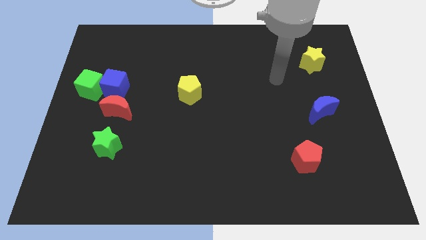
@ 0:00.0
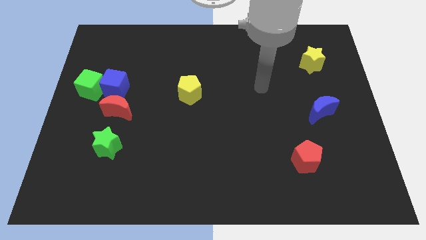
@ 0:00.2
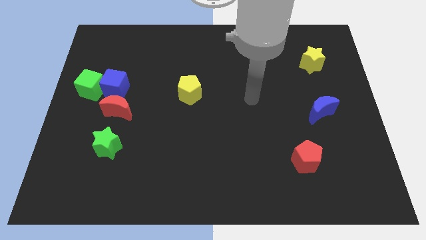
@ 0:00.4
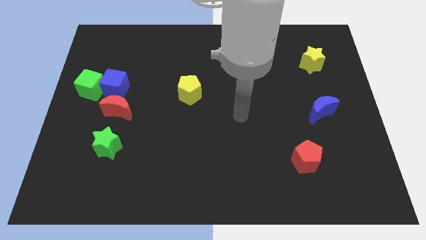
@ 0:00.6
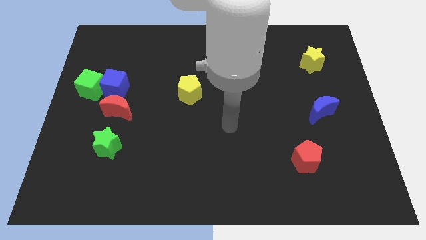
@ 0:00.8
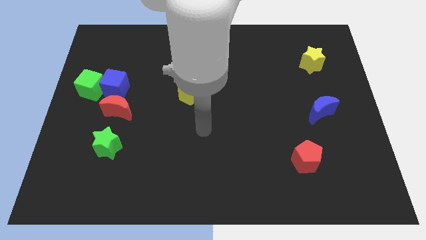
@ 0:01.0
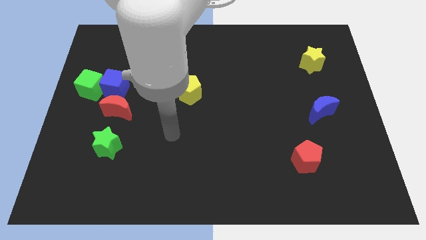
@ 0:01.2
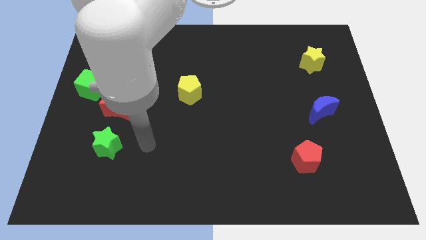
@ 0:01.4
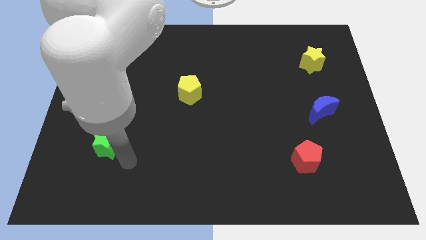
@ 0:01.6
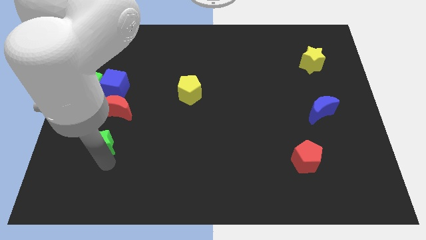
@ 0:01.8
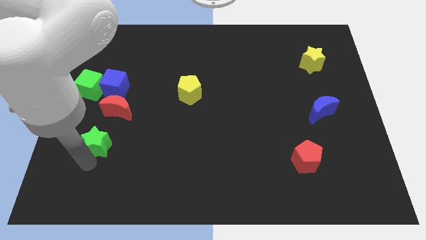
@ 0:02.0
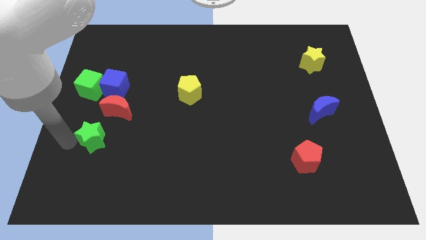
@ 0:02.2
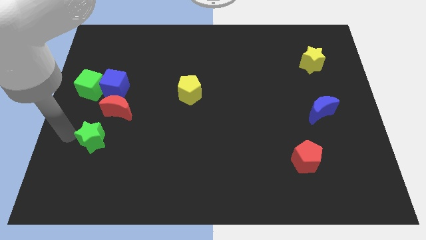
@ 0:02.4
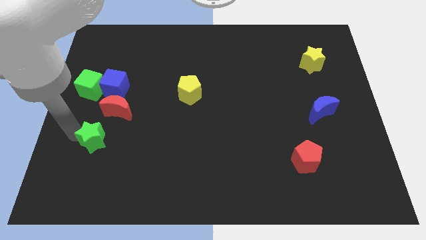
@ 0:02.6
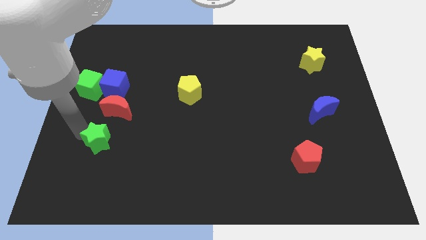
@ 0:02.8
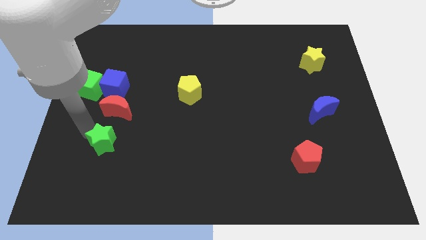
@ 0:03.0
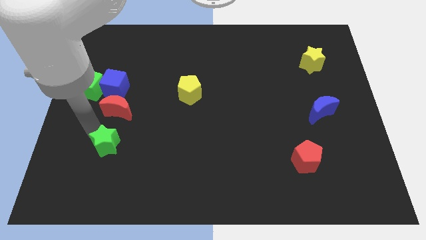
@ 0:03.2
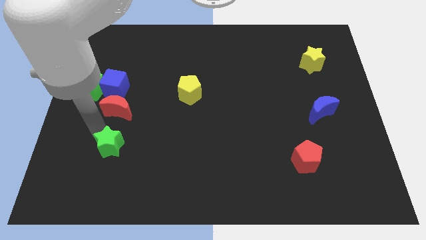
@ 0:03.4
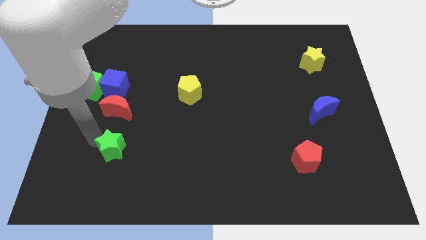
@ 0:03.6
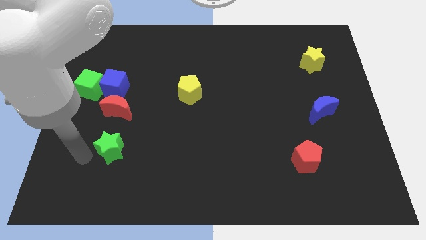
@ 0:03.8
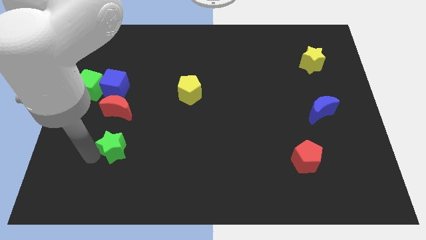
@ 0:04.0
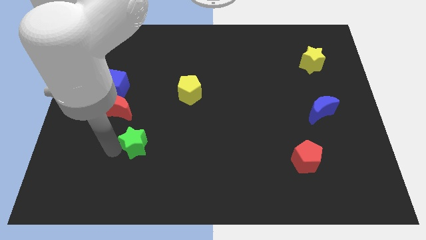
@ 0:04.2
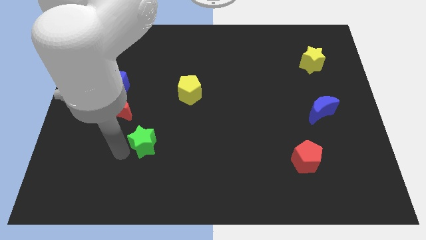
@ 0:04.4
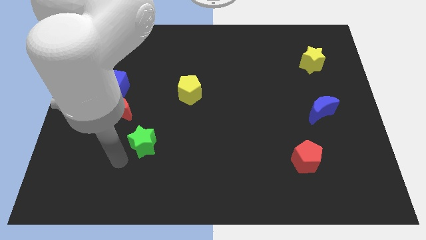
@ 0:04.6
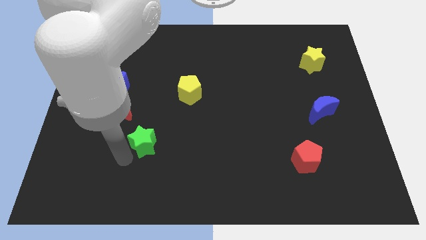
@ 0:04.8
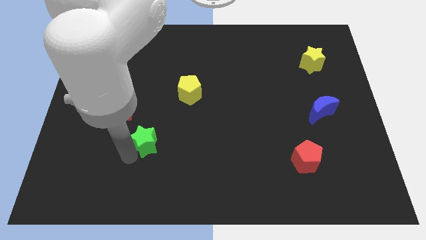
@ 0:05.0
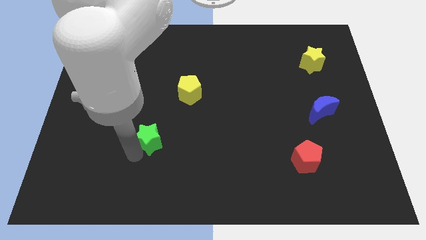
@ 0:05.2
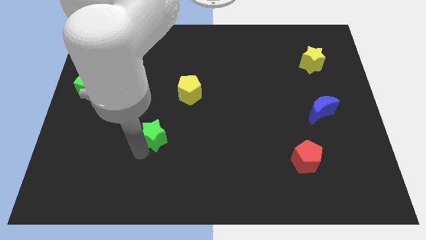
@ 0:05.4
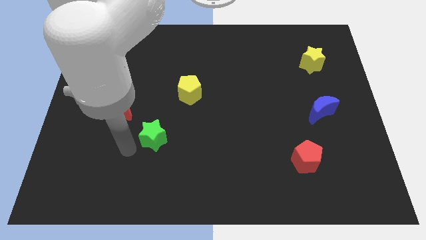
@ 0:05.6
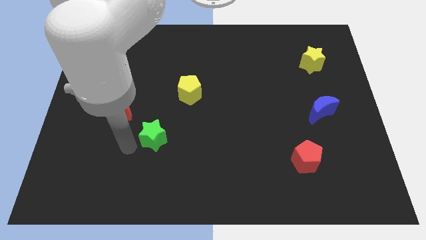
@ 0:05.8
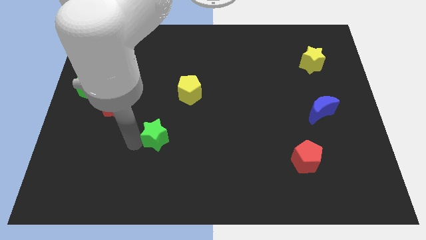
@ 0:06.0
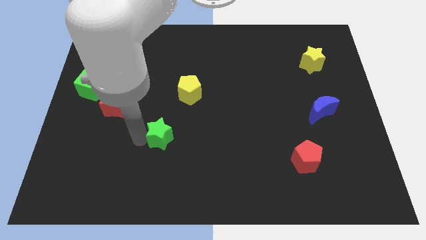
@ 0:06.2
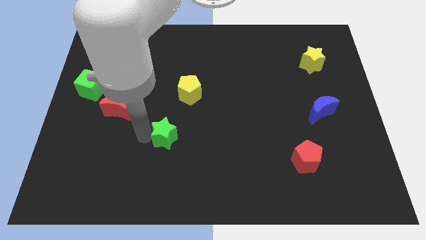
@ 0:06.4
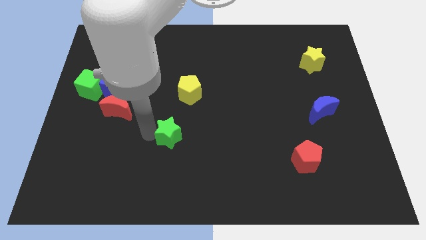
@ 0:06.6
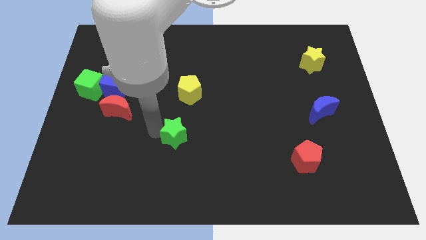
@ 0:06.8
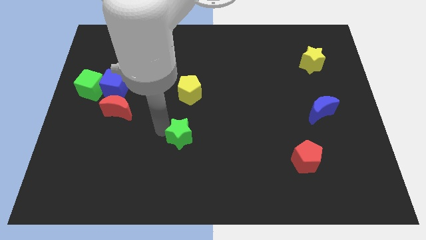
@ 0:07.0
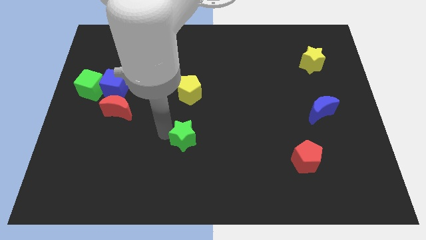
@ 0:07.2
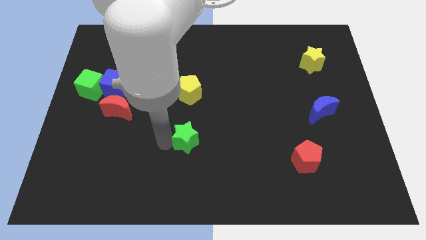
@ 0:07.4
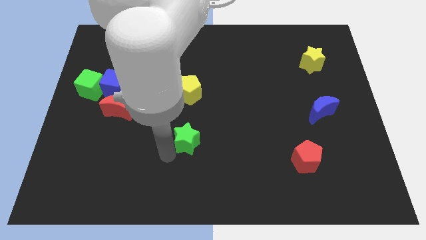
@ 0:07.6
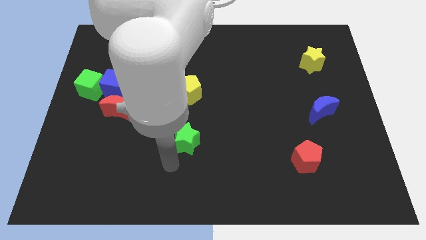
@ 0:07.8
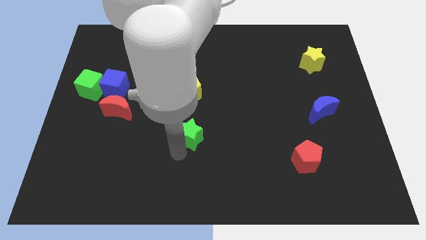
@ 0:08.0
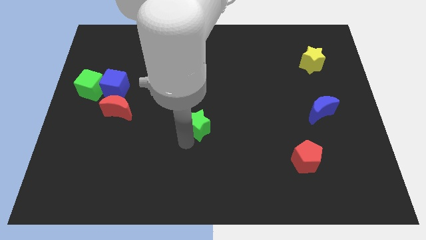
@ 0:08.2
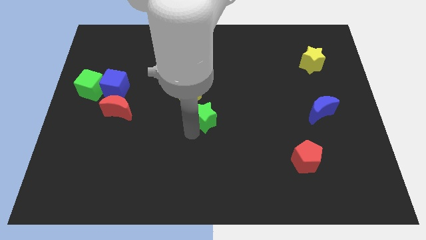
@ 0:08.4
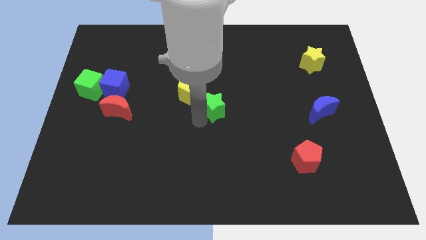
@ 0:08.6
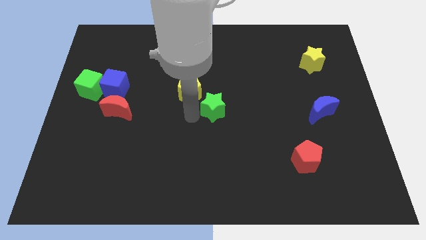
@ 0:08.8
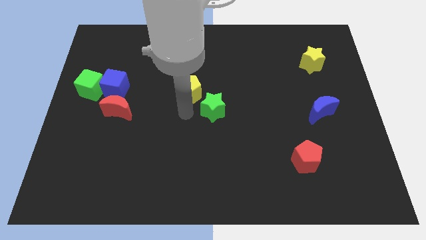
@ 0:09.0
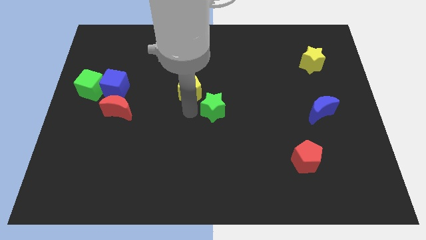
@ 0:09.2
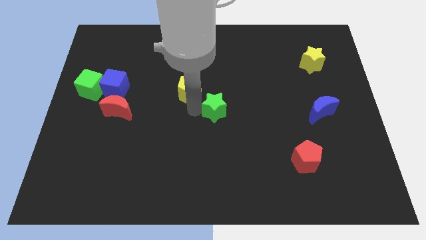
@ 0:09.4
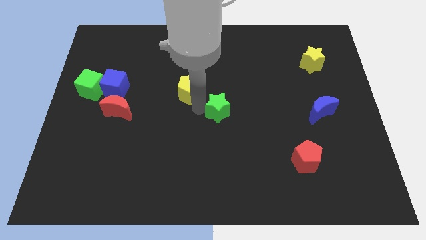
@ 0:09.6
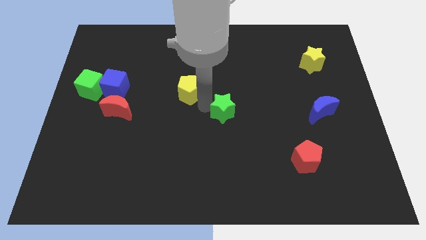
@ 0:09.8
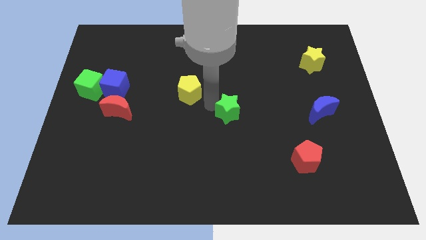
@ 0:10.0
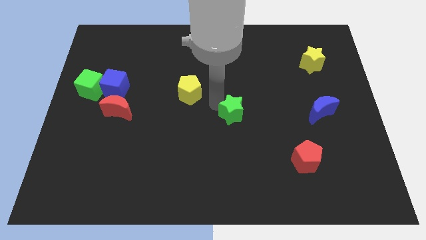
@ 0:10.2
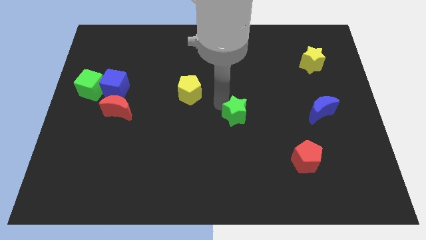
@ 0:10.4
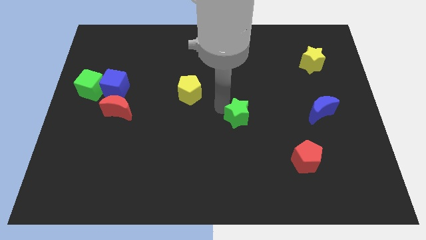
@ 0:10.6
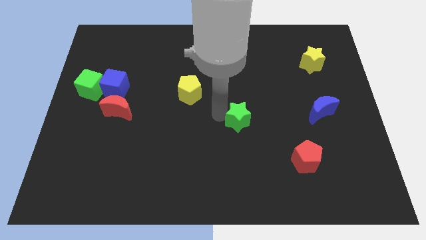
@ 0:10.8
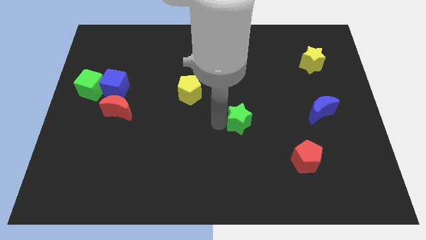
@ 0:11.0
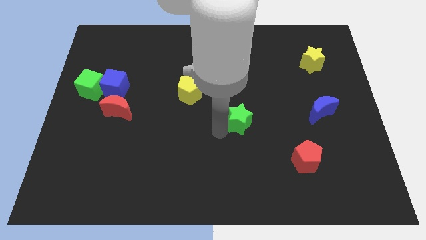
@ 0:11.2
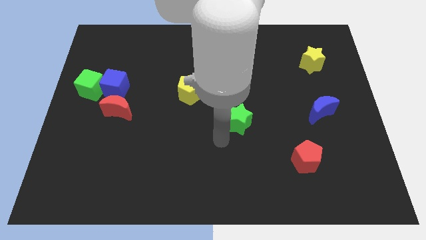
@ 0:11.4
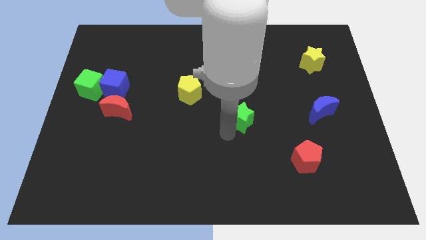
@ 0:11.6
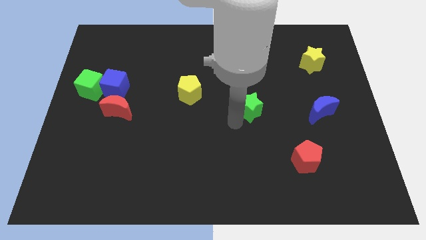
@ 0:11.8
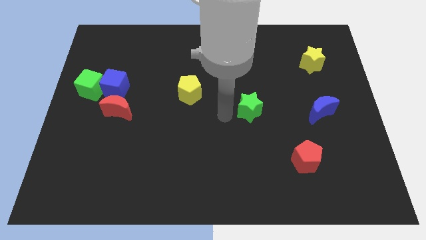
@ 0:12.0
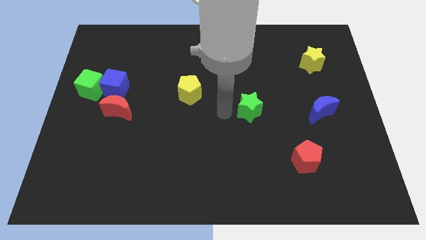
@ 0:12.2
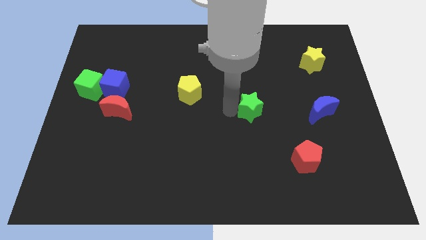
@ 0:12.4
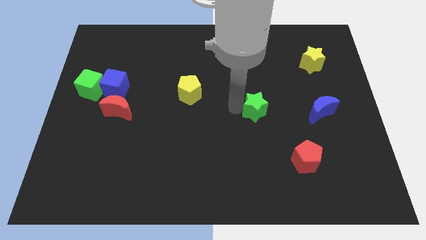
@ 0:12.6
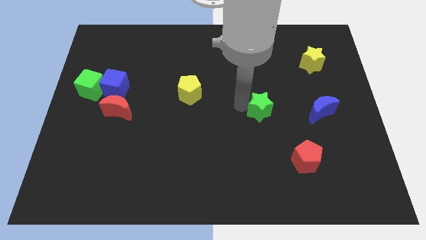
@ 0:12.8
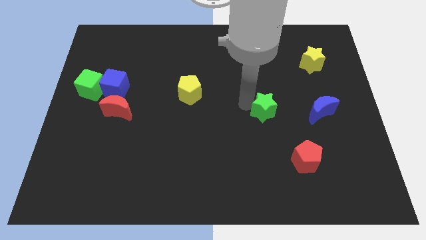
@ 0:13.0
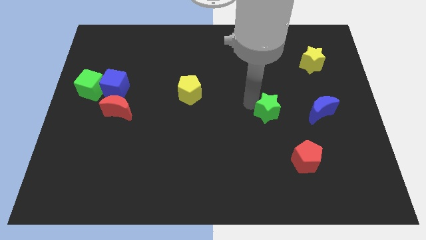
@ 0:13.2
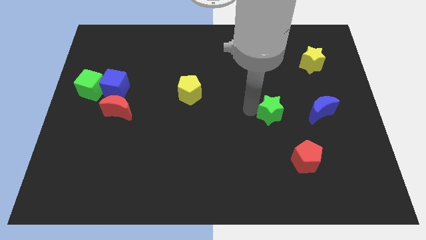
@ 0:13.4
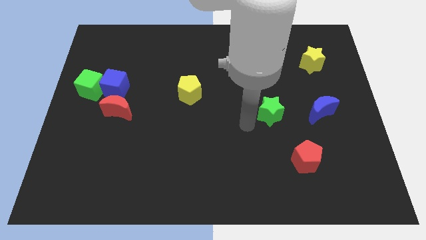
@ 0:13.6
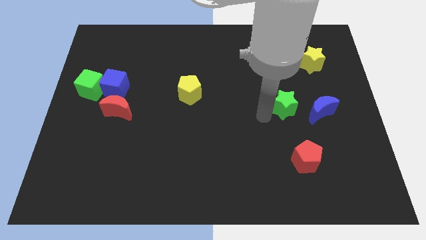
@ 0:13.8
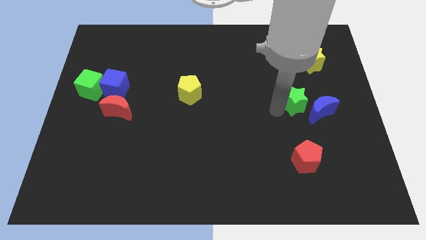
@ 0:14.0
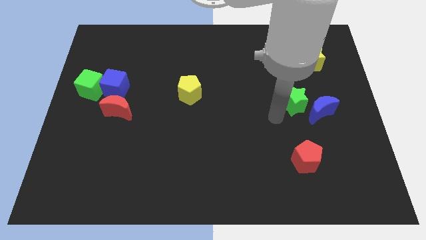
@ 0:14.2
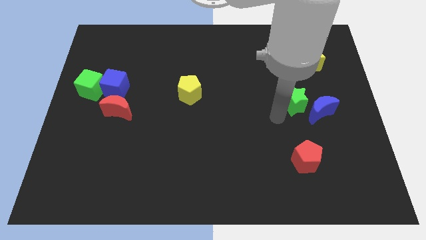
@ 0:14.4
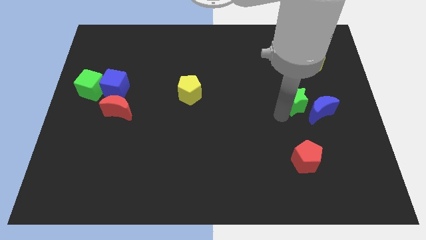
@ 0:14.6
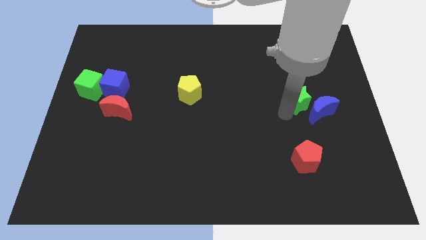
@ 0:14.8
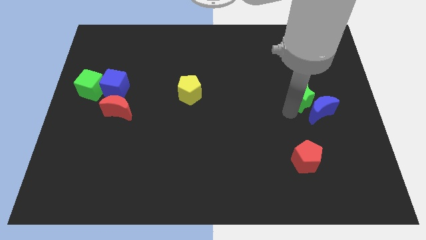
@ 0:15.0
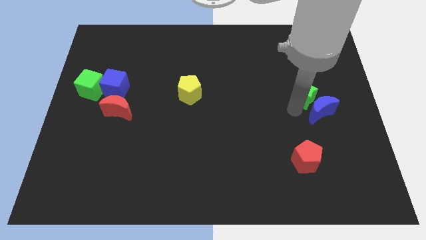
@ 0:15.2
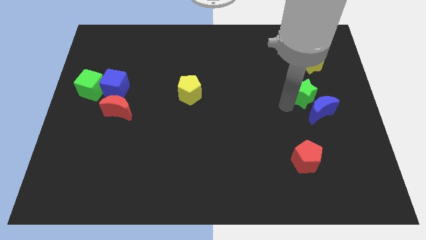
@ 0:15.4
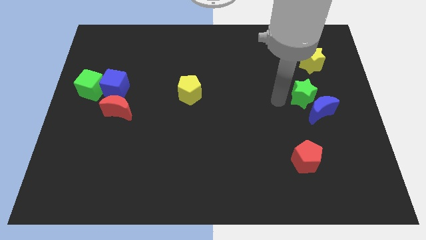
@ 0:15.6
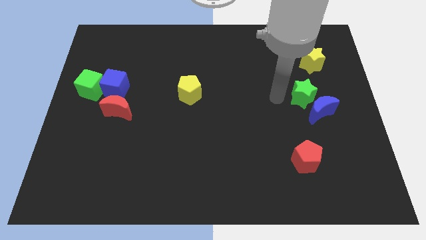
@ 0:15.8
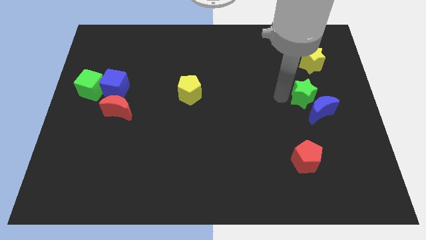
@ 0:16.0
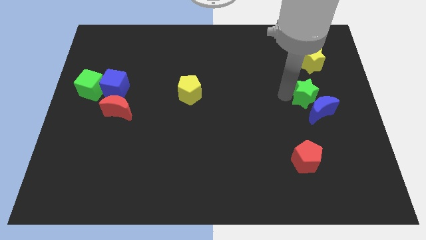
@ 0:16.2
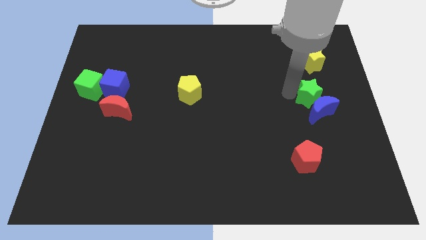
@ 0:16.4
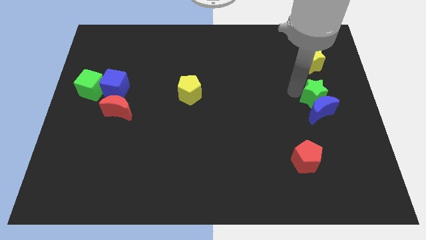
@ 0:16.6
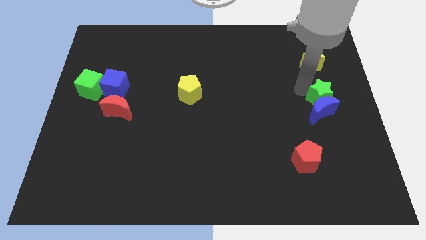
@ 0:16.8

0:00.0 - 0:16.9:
put the green star to the center right
